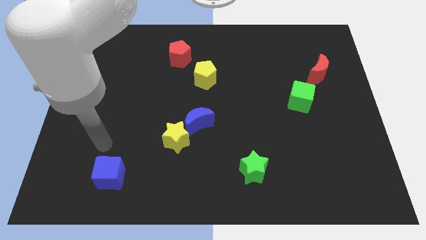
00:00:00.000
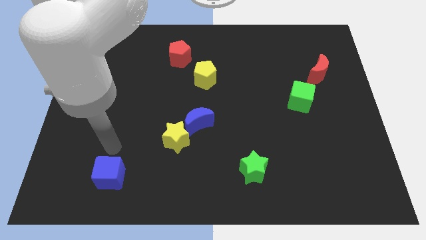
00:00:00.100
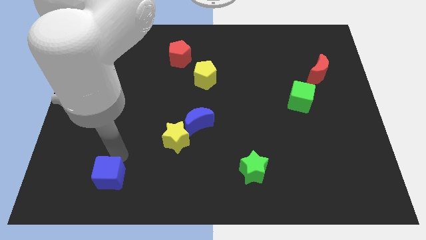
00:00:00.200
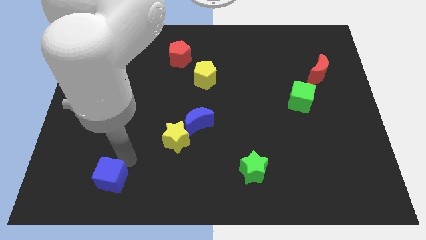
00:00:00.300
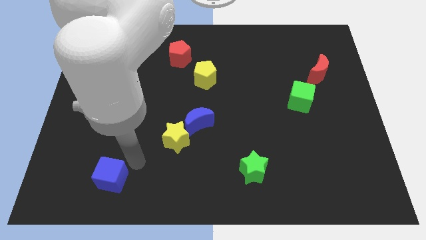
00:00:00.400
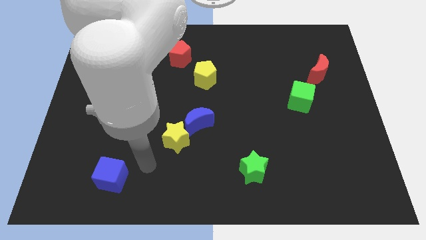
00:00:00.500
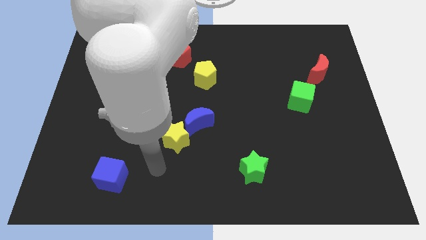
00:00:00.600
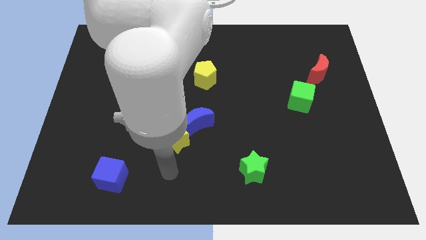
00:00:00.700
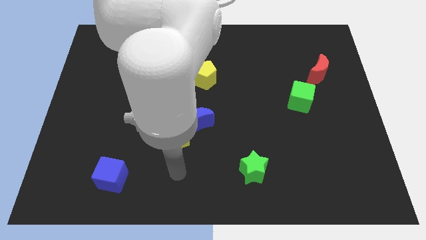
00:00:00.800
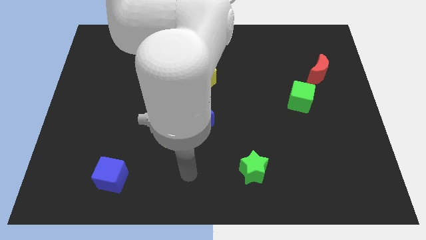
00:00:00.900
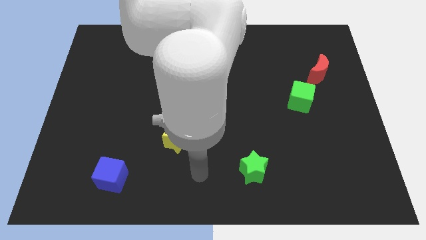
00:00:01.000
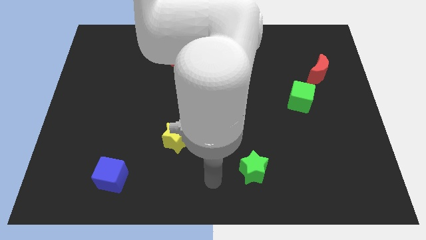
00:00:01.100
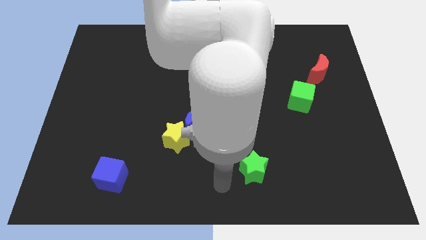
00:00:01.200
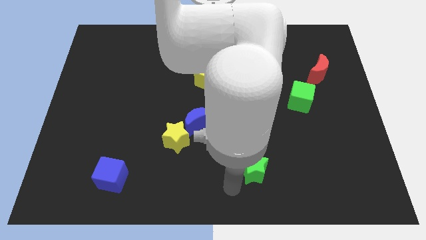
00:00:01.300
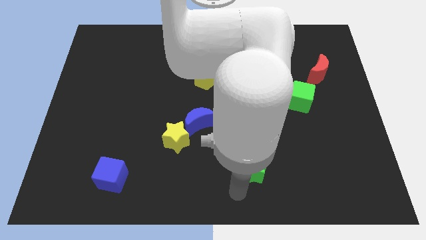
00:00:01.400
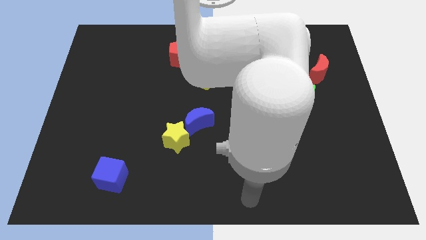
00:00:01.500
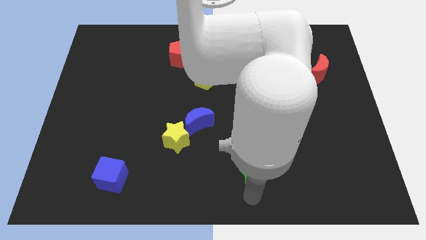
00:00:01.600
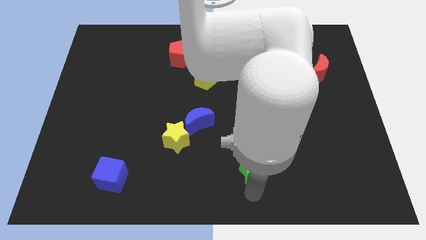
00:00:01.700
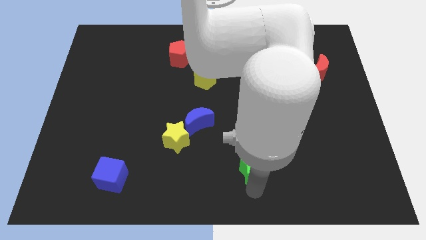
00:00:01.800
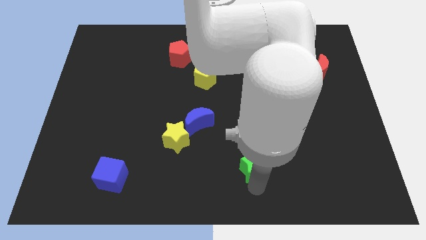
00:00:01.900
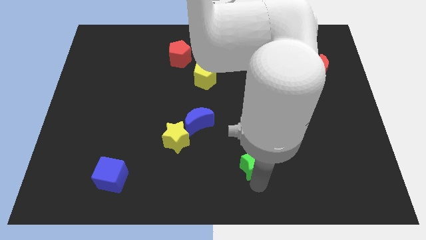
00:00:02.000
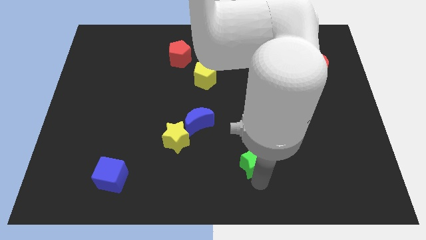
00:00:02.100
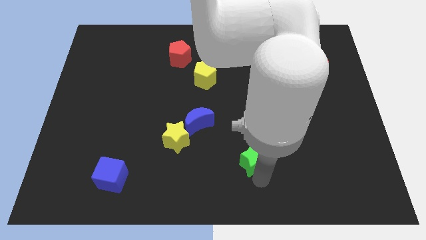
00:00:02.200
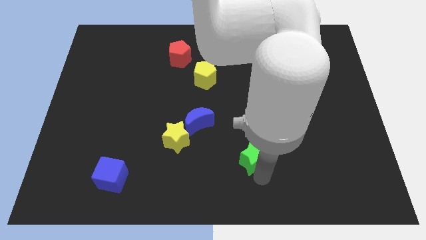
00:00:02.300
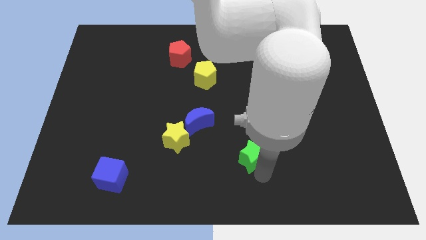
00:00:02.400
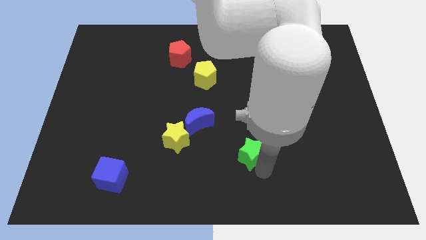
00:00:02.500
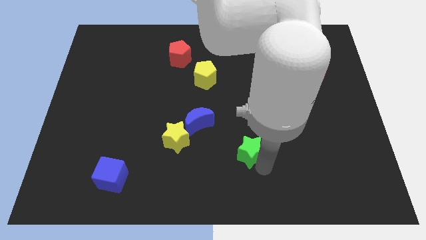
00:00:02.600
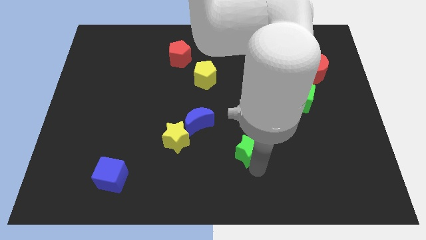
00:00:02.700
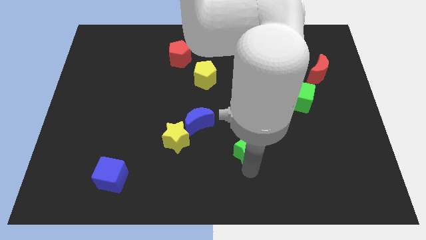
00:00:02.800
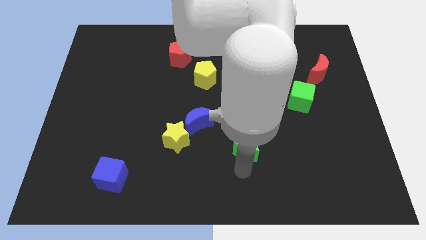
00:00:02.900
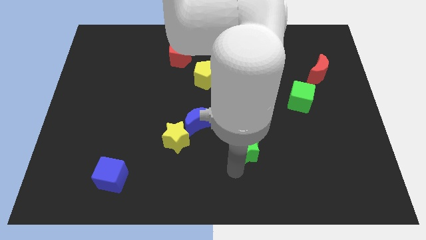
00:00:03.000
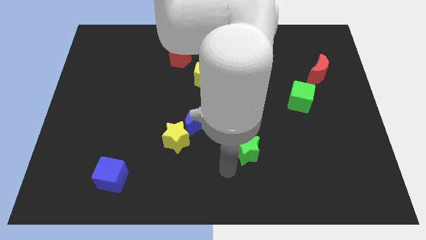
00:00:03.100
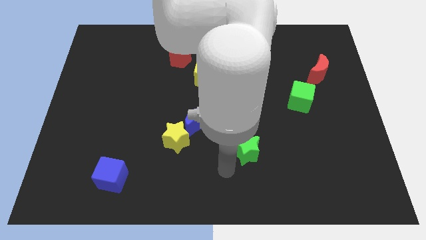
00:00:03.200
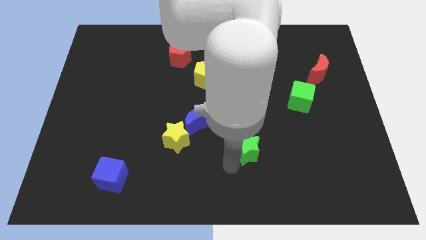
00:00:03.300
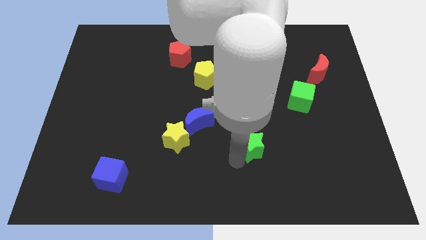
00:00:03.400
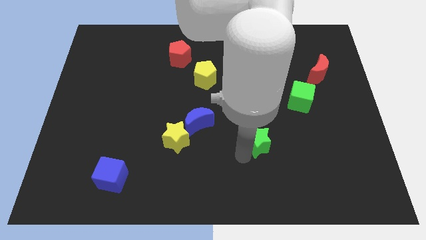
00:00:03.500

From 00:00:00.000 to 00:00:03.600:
push the green star slightly upwards

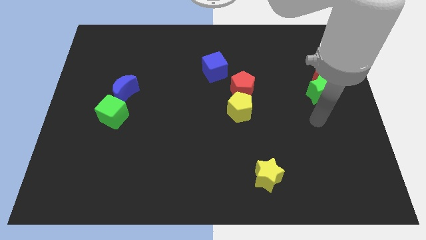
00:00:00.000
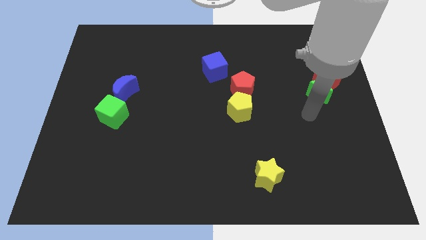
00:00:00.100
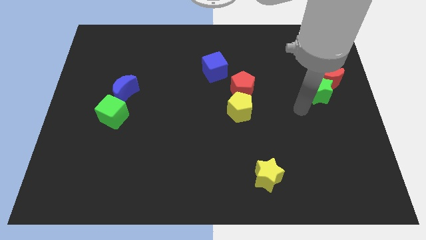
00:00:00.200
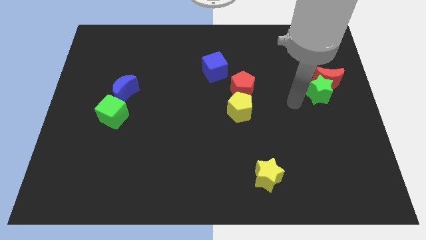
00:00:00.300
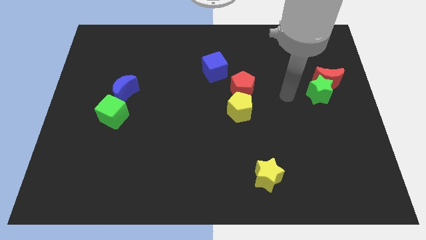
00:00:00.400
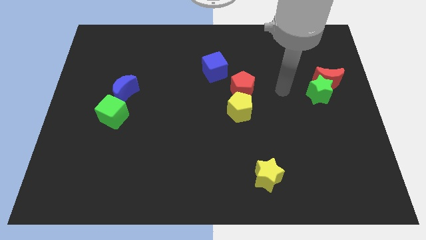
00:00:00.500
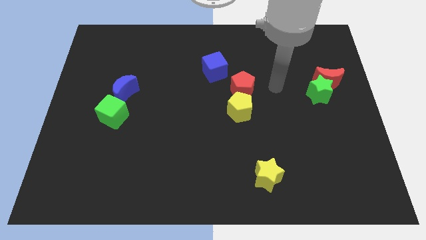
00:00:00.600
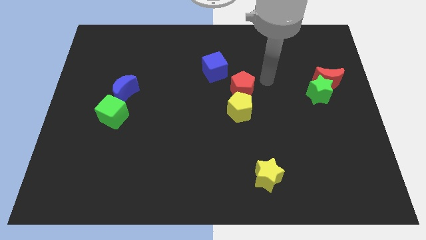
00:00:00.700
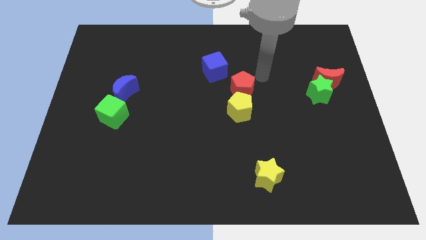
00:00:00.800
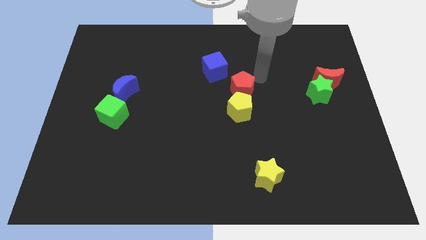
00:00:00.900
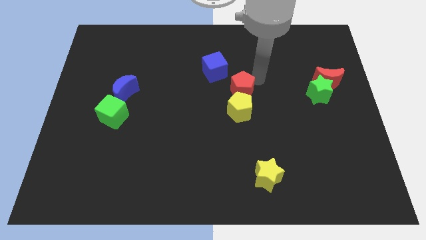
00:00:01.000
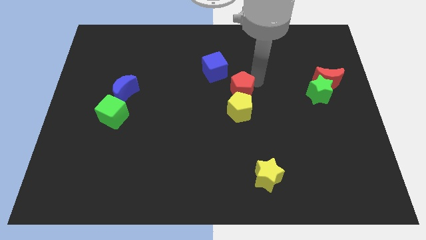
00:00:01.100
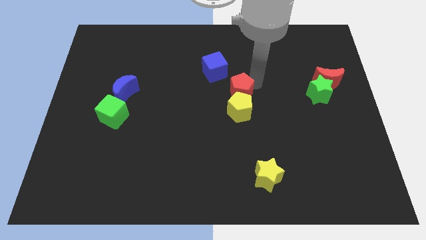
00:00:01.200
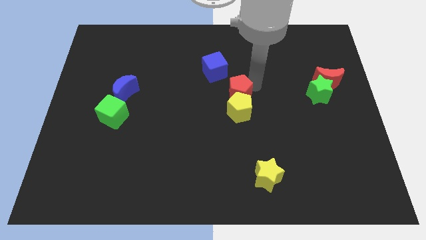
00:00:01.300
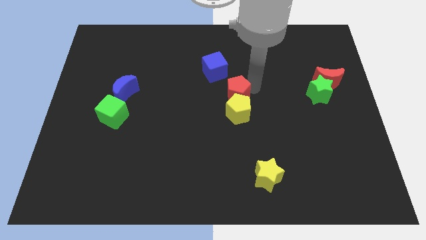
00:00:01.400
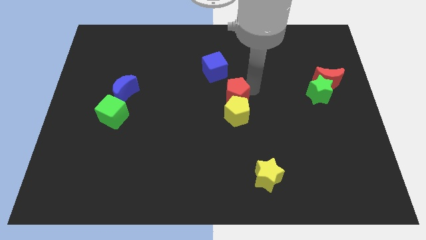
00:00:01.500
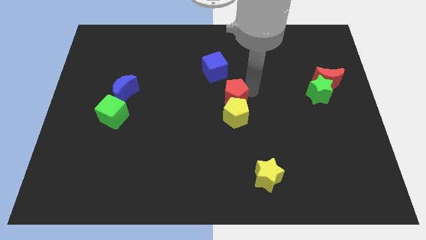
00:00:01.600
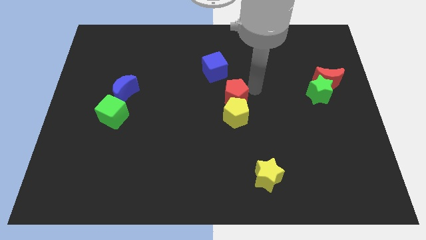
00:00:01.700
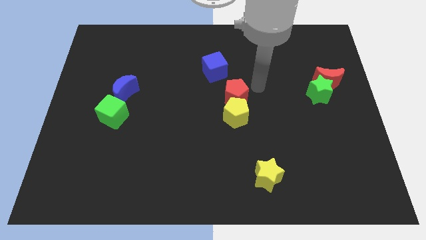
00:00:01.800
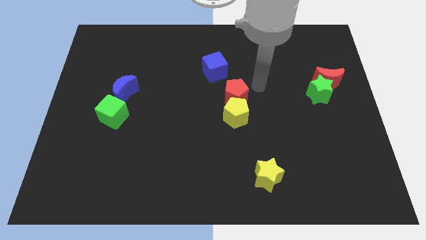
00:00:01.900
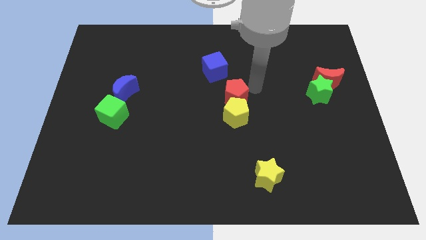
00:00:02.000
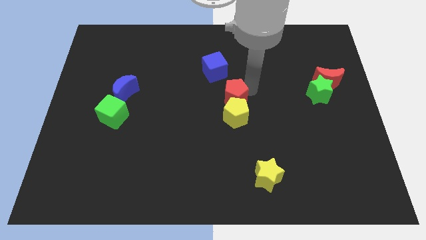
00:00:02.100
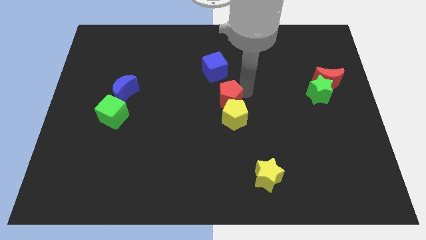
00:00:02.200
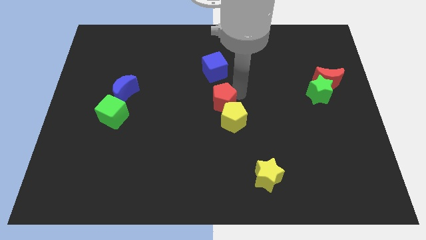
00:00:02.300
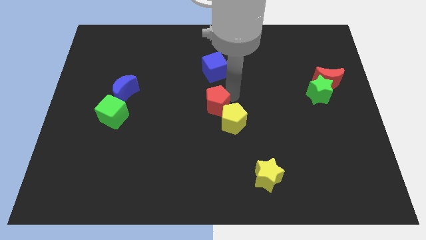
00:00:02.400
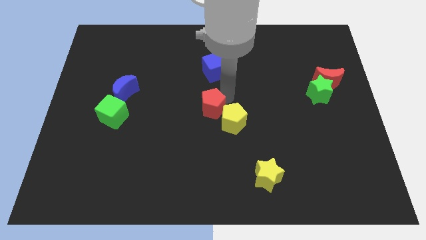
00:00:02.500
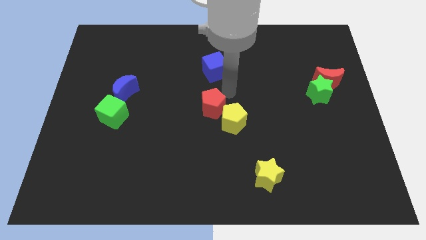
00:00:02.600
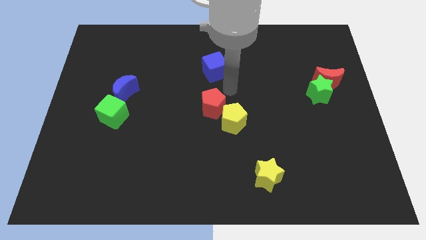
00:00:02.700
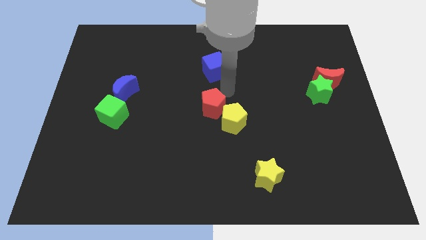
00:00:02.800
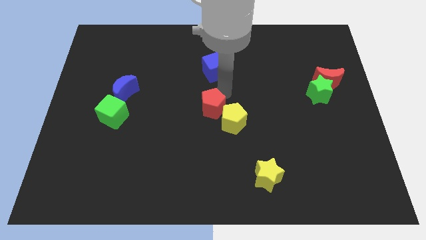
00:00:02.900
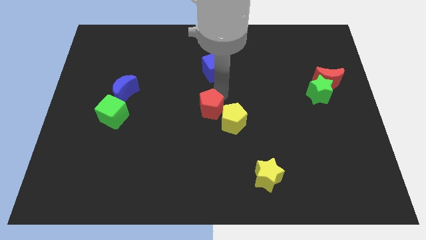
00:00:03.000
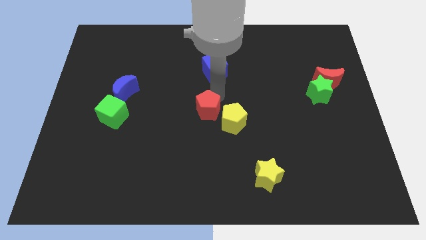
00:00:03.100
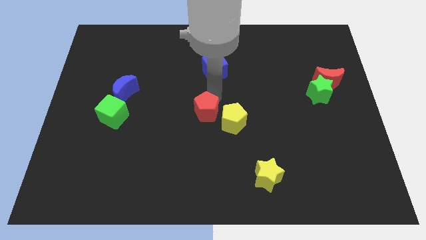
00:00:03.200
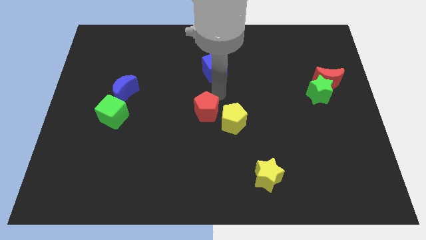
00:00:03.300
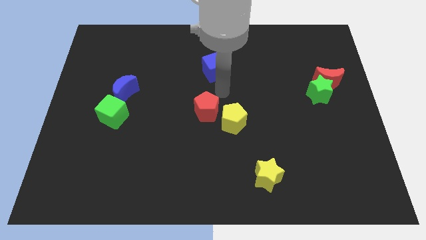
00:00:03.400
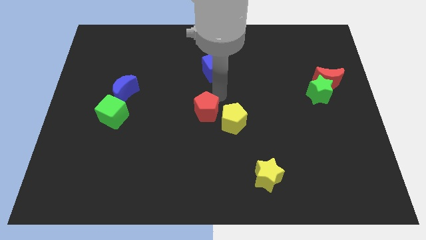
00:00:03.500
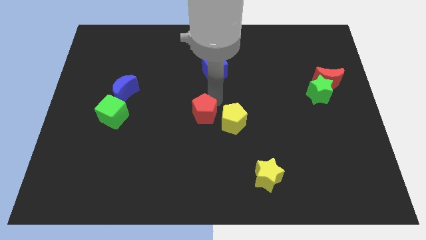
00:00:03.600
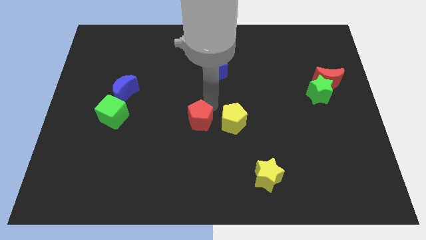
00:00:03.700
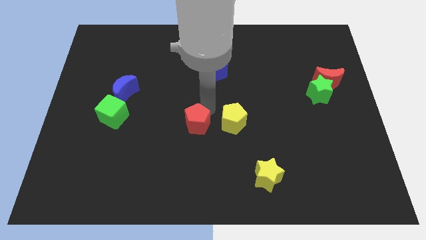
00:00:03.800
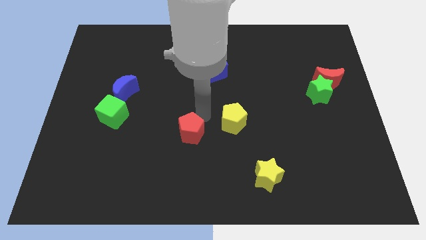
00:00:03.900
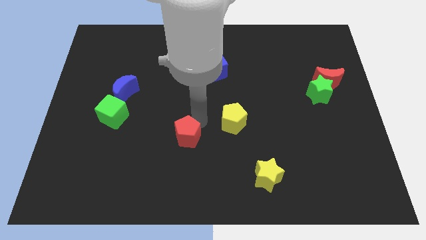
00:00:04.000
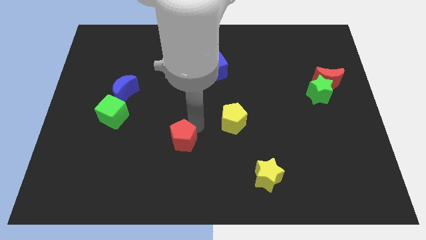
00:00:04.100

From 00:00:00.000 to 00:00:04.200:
slide the red pentagon down and then left
